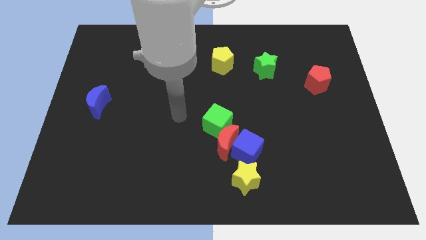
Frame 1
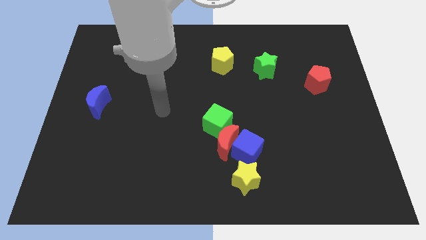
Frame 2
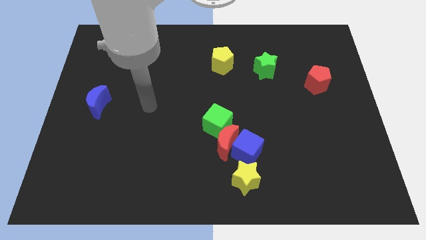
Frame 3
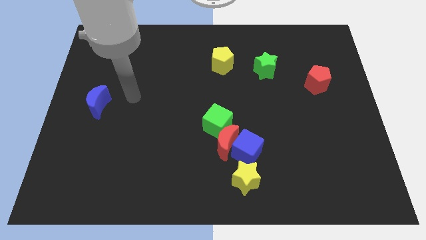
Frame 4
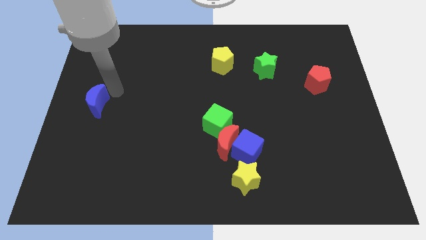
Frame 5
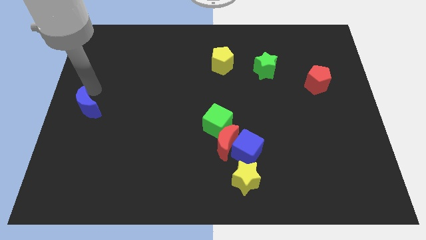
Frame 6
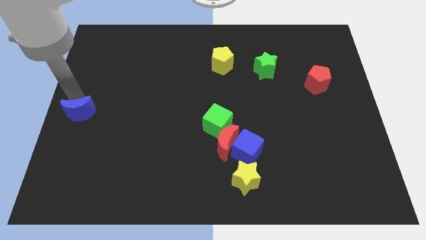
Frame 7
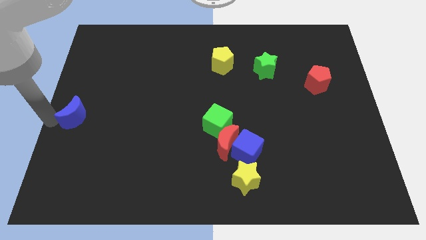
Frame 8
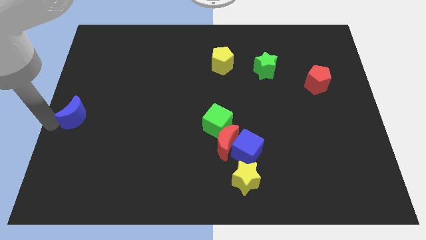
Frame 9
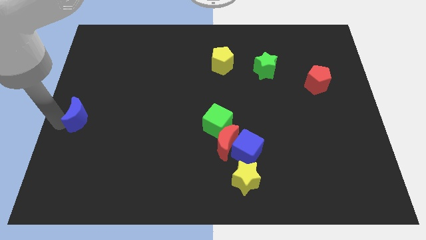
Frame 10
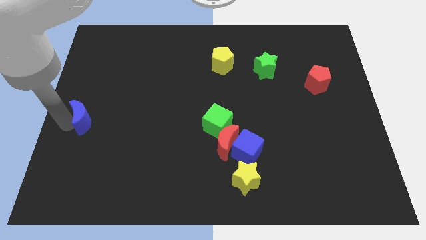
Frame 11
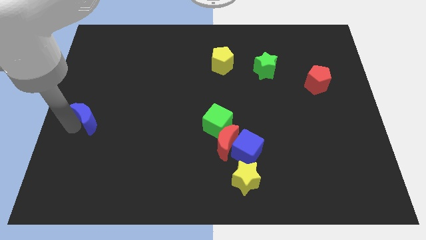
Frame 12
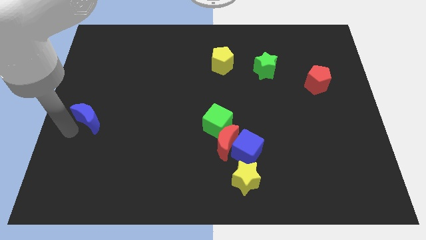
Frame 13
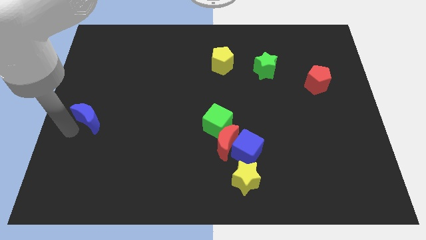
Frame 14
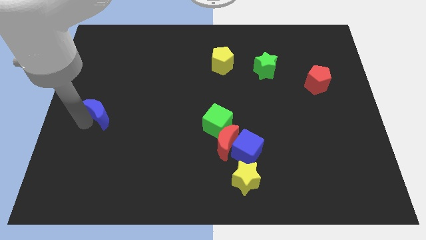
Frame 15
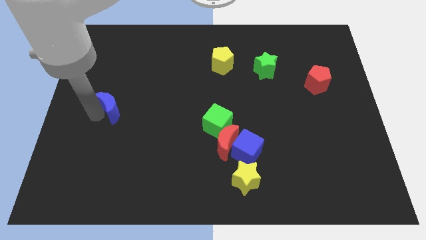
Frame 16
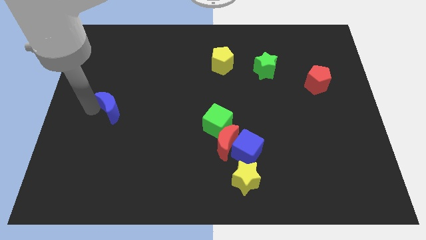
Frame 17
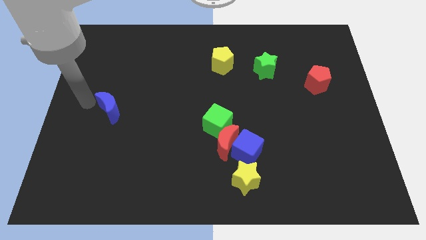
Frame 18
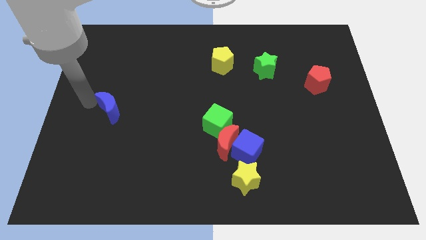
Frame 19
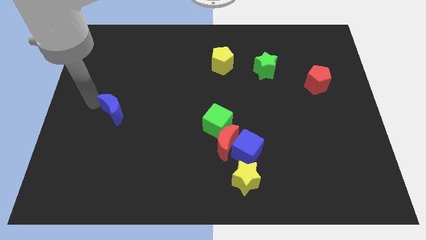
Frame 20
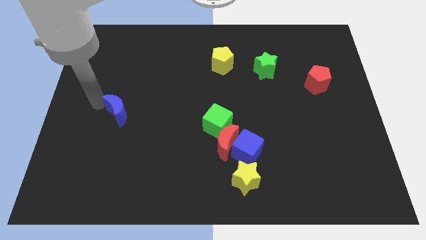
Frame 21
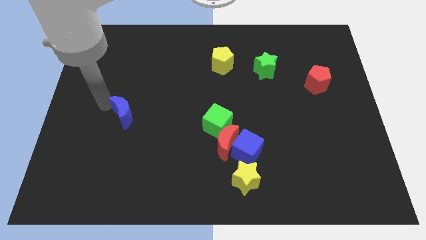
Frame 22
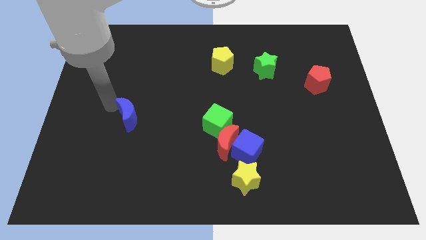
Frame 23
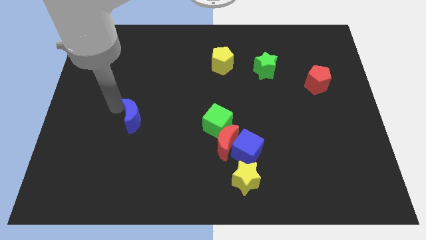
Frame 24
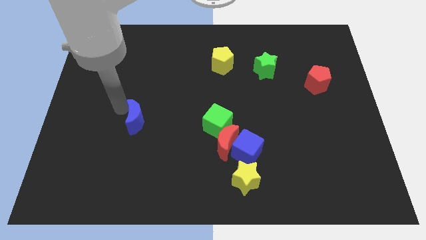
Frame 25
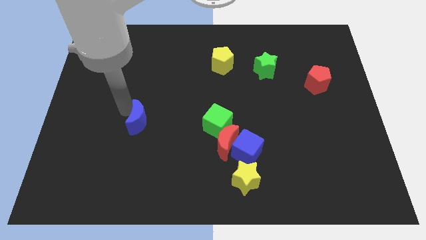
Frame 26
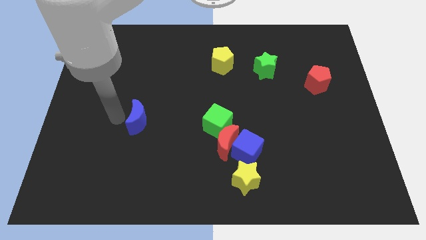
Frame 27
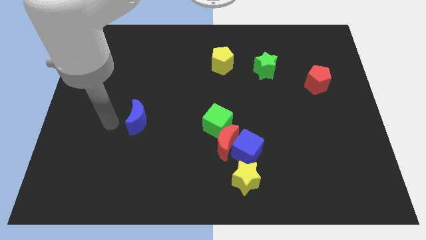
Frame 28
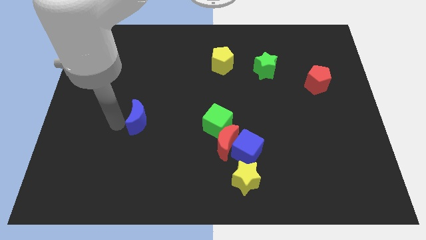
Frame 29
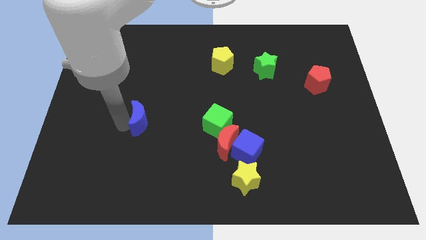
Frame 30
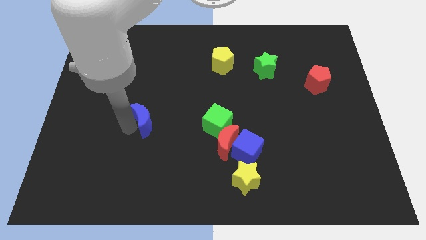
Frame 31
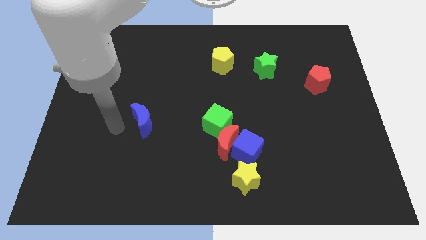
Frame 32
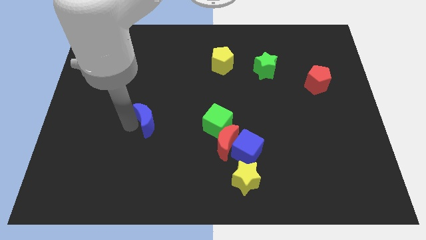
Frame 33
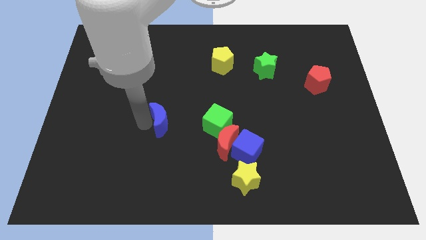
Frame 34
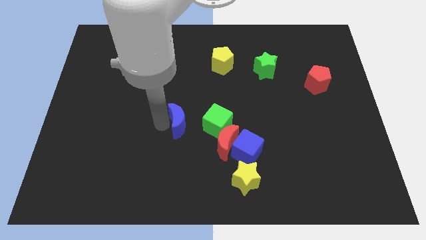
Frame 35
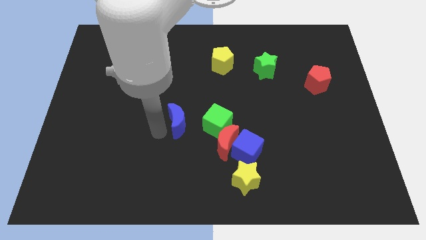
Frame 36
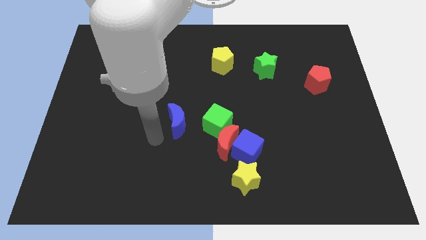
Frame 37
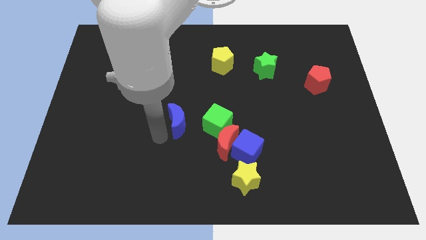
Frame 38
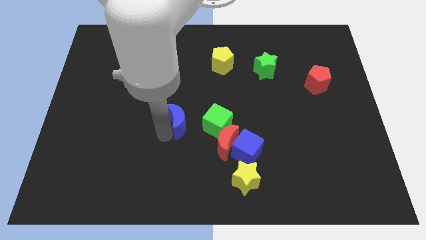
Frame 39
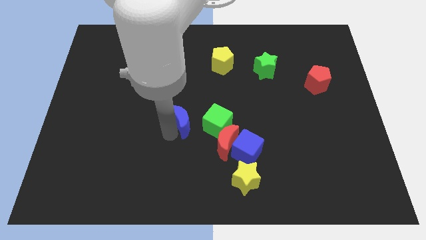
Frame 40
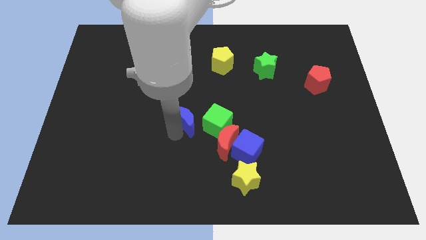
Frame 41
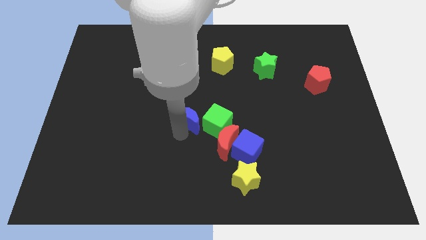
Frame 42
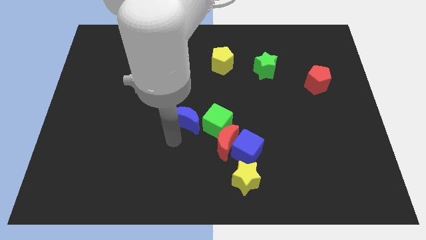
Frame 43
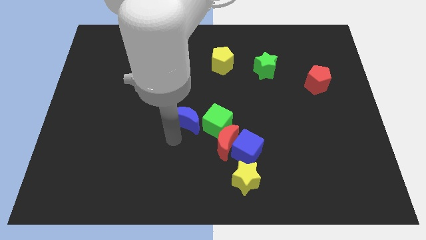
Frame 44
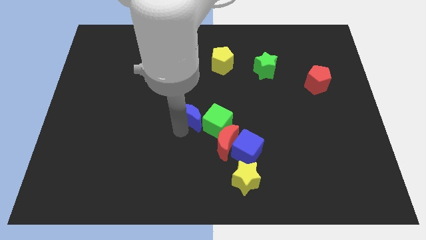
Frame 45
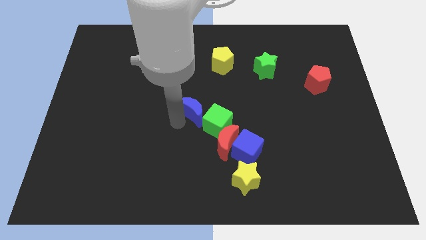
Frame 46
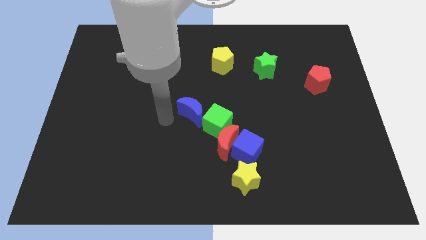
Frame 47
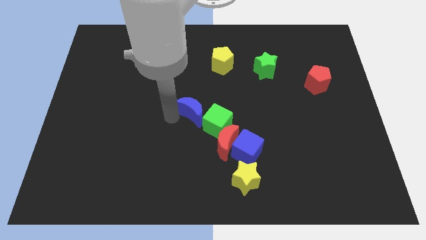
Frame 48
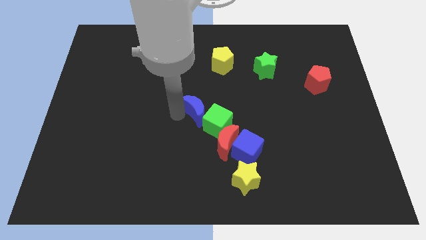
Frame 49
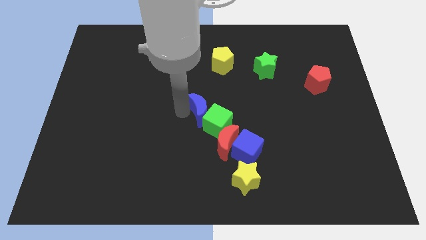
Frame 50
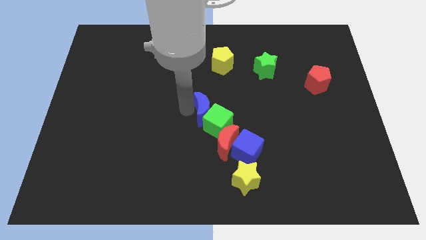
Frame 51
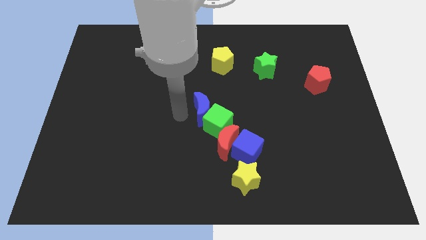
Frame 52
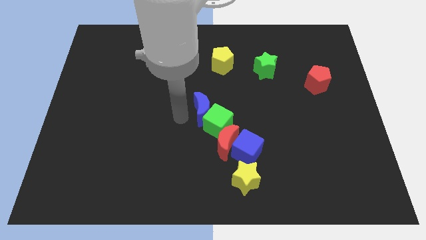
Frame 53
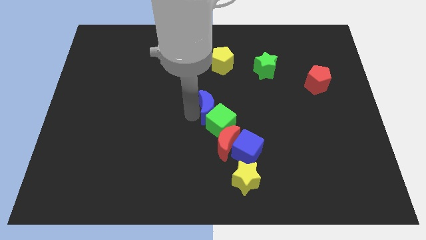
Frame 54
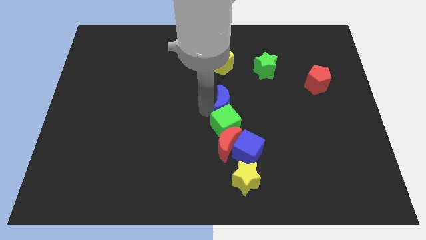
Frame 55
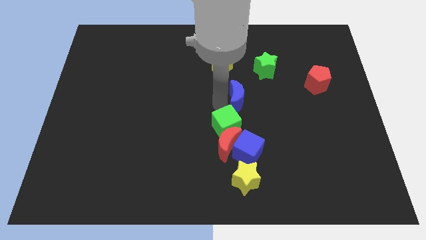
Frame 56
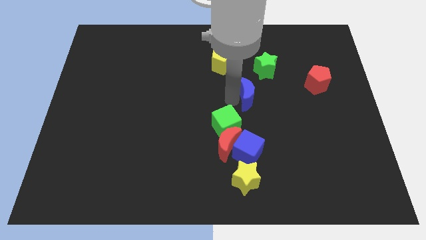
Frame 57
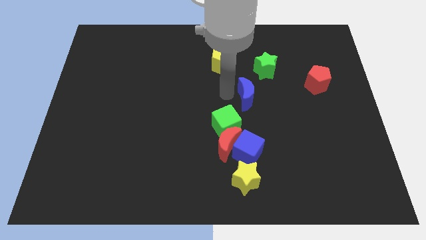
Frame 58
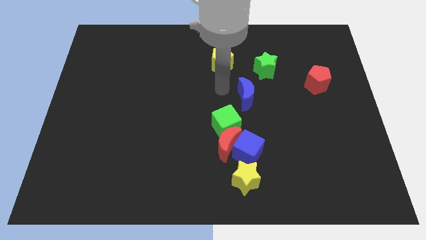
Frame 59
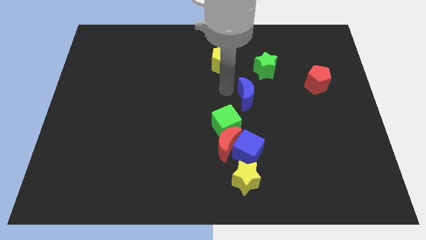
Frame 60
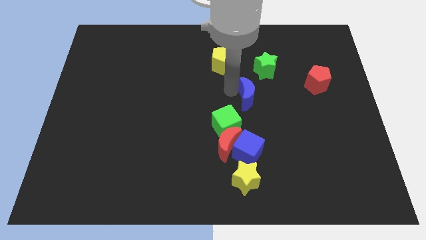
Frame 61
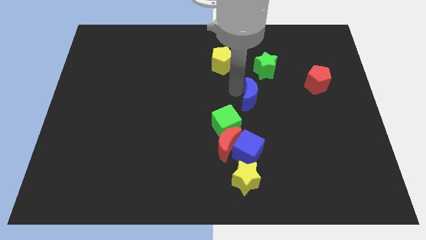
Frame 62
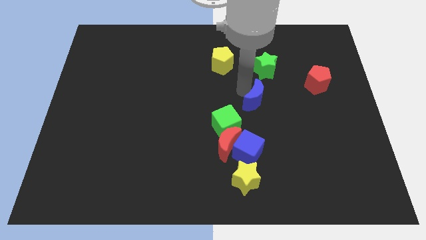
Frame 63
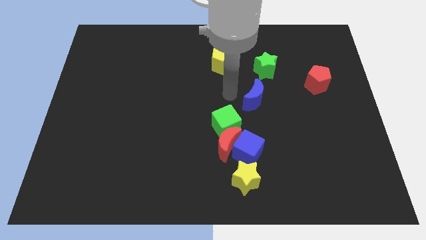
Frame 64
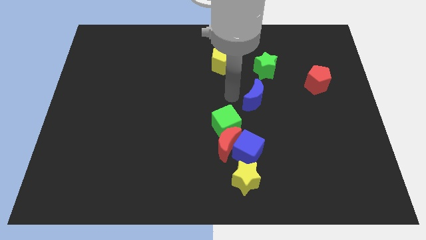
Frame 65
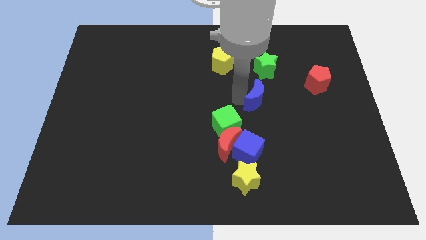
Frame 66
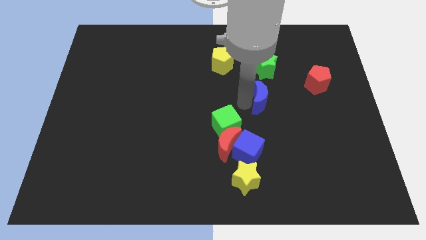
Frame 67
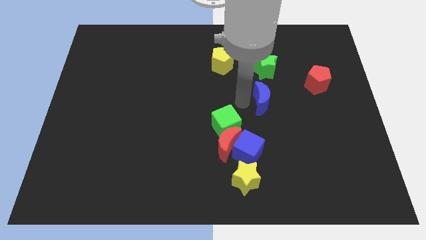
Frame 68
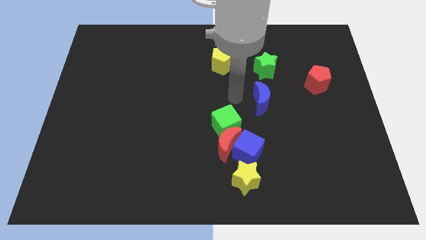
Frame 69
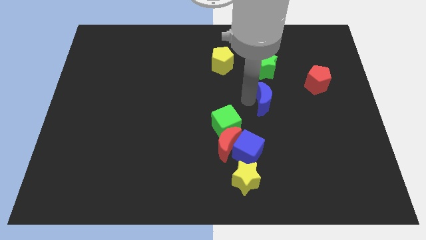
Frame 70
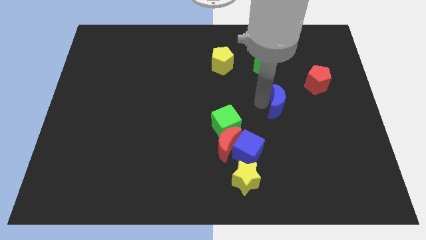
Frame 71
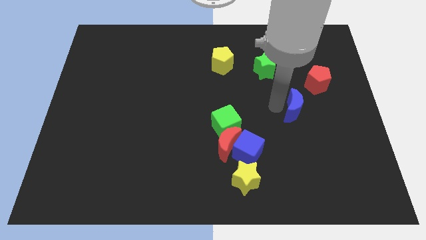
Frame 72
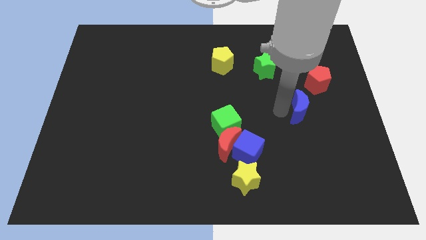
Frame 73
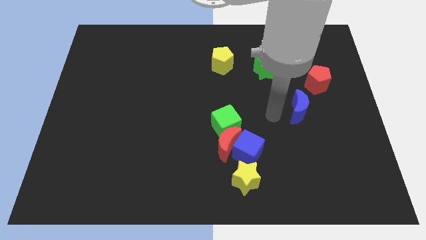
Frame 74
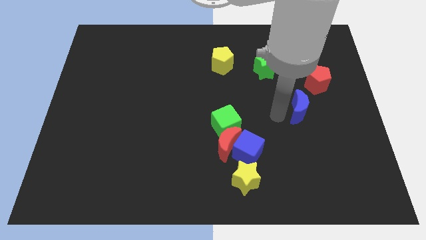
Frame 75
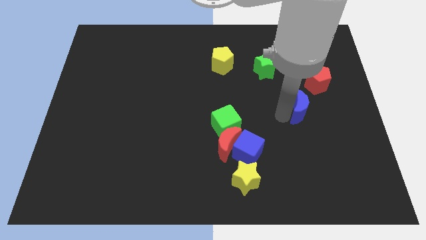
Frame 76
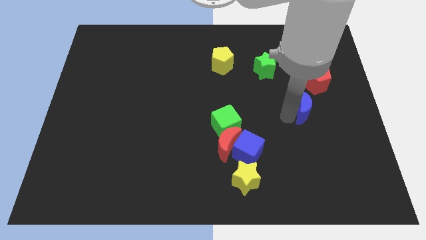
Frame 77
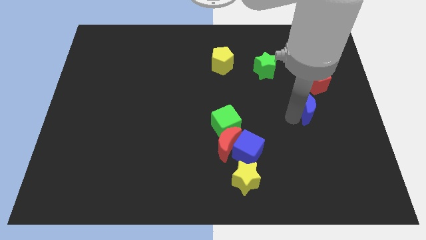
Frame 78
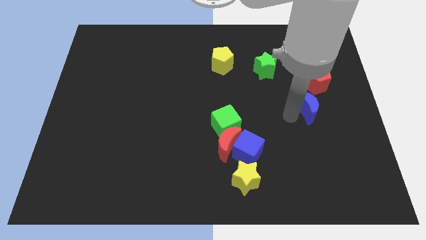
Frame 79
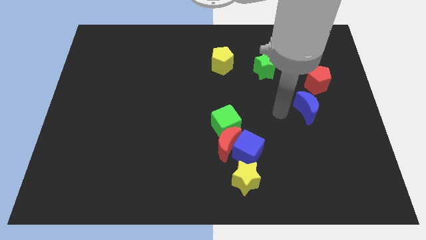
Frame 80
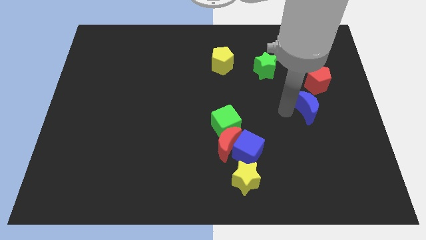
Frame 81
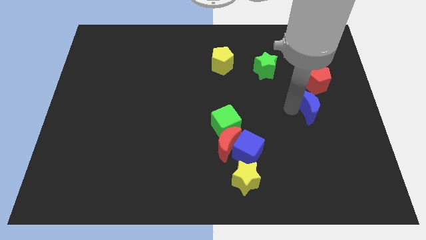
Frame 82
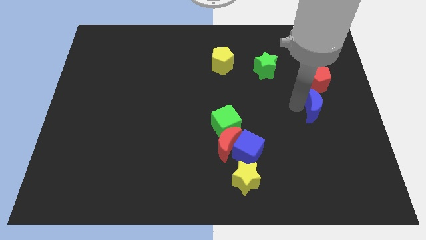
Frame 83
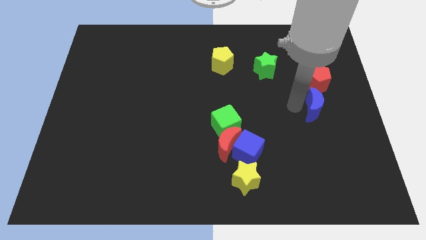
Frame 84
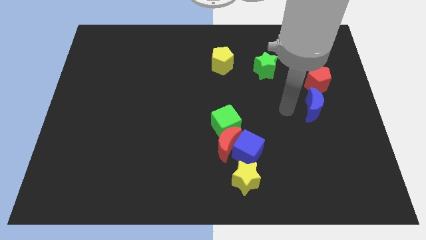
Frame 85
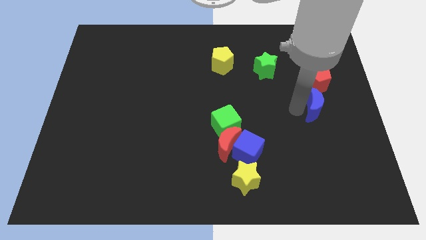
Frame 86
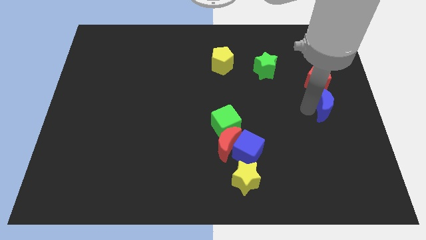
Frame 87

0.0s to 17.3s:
push the blue moon to the right side of the board
